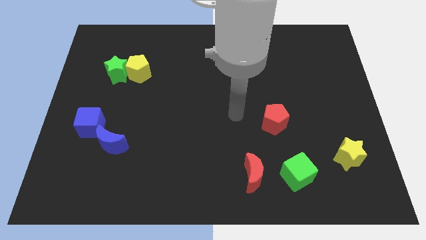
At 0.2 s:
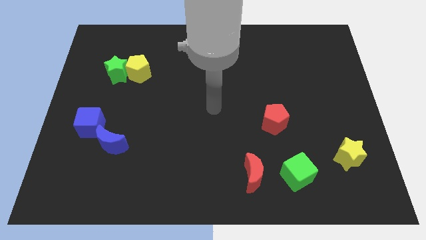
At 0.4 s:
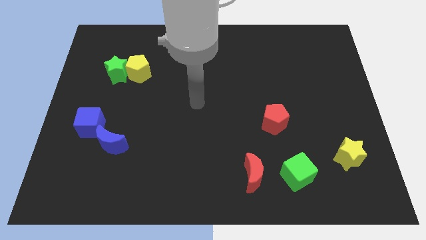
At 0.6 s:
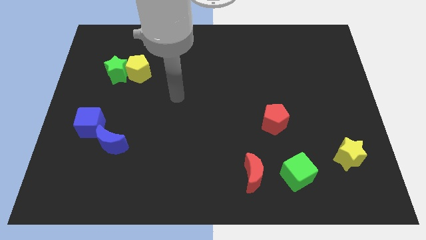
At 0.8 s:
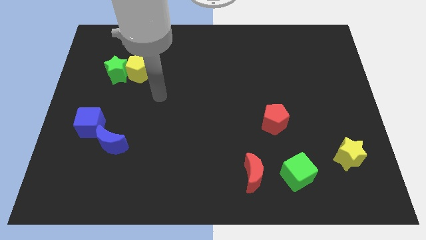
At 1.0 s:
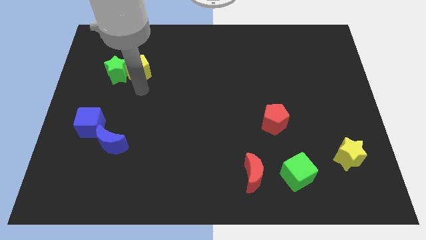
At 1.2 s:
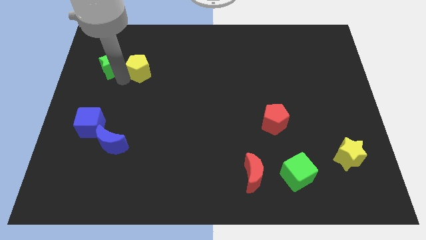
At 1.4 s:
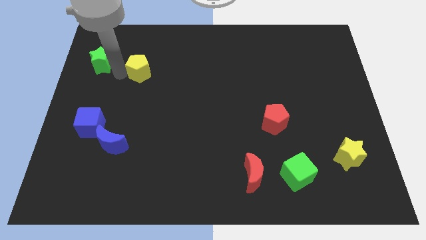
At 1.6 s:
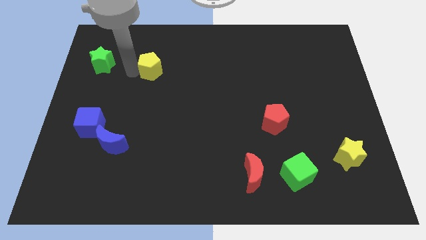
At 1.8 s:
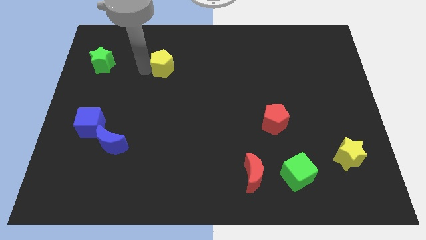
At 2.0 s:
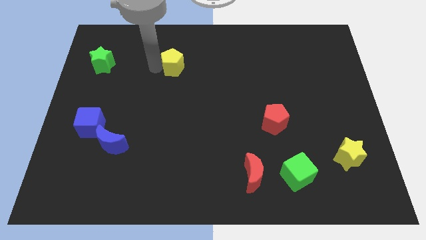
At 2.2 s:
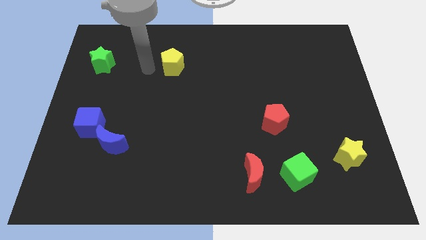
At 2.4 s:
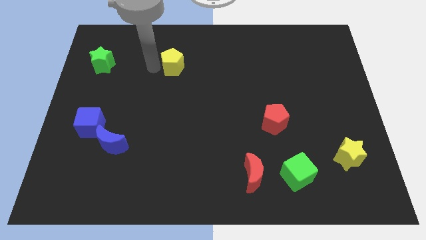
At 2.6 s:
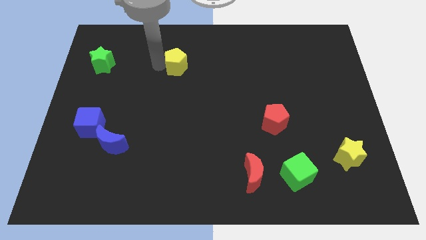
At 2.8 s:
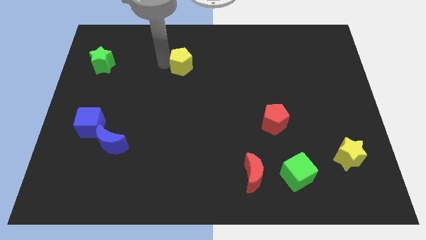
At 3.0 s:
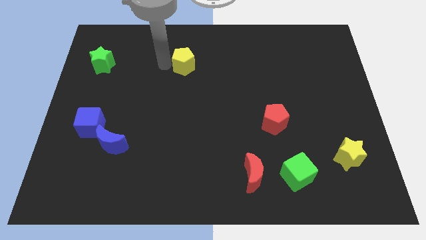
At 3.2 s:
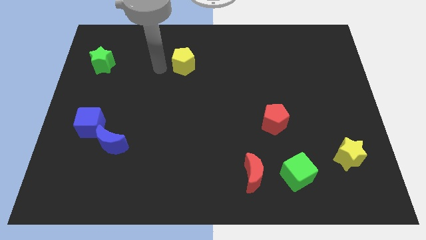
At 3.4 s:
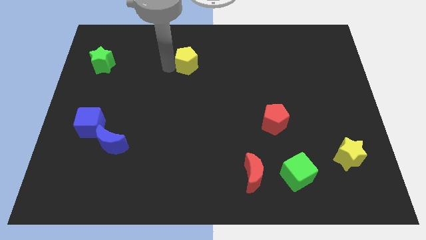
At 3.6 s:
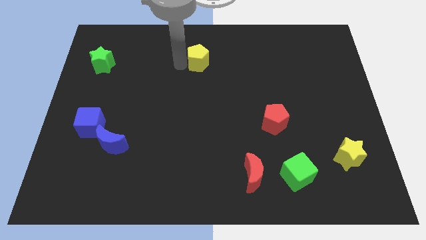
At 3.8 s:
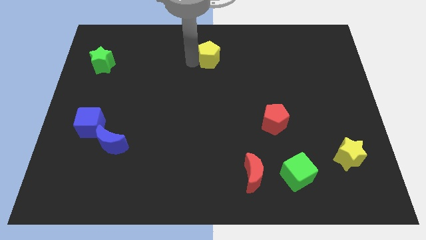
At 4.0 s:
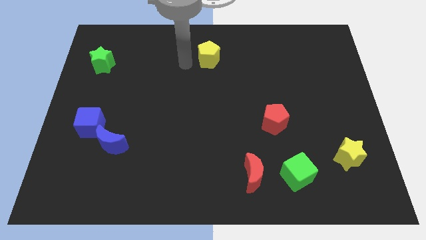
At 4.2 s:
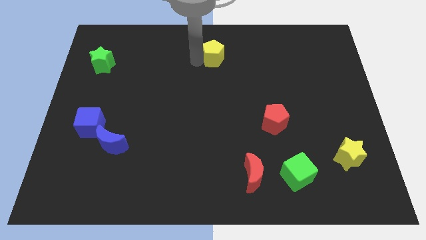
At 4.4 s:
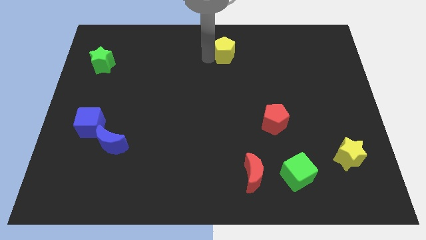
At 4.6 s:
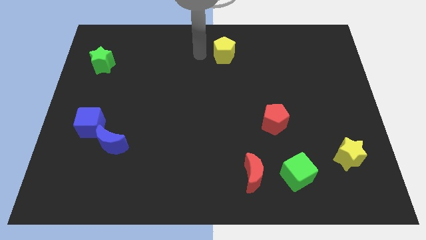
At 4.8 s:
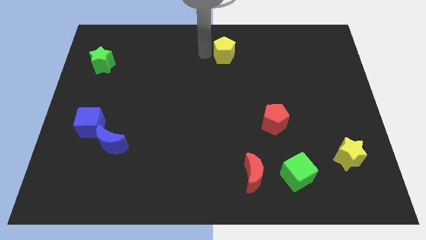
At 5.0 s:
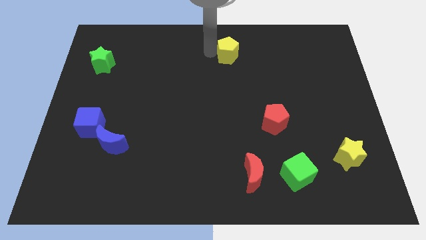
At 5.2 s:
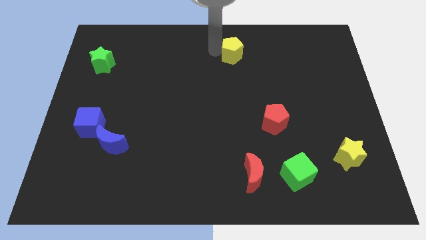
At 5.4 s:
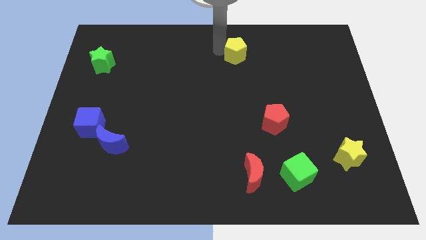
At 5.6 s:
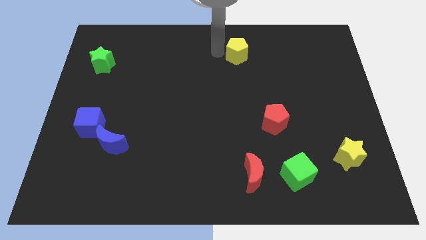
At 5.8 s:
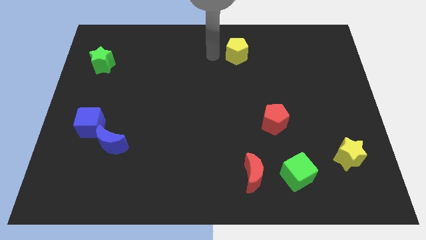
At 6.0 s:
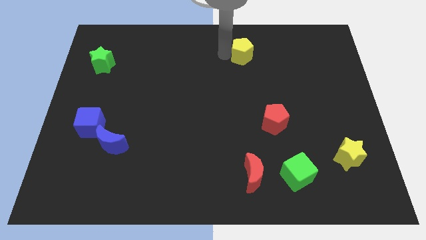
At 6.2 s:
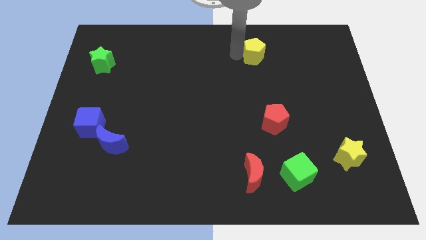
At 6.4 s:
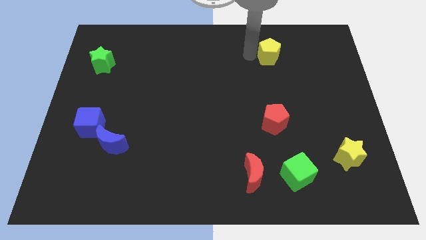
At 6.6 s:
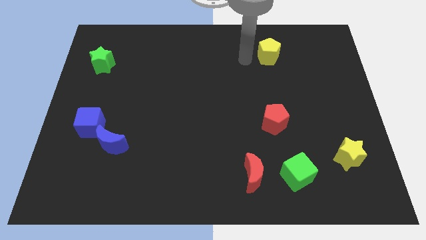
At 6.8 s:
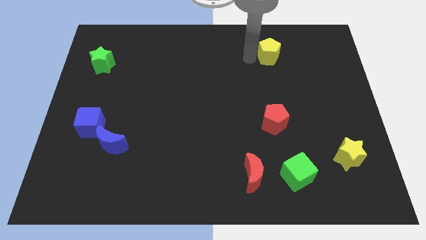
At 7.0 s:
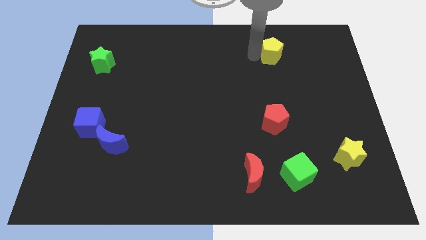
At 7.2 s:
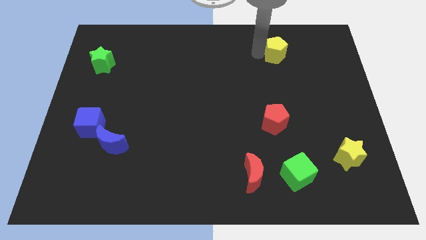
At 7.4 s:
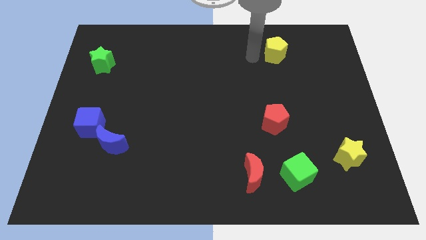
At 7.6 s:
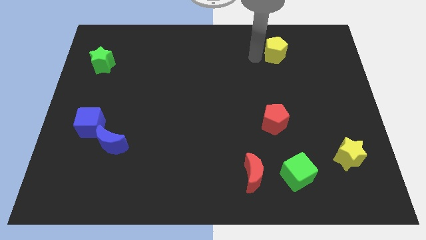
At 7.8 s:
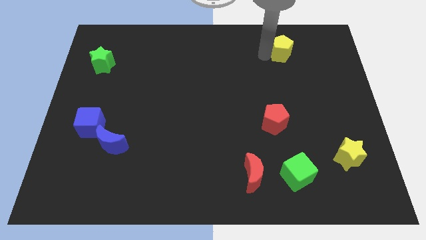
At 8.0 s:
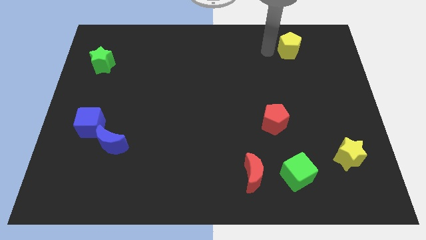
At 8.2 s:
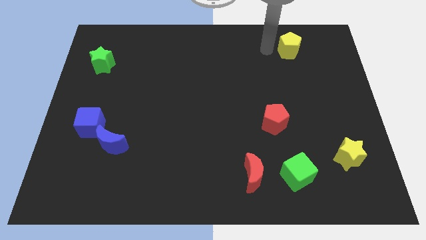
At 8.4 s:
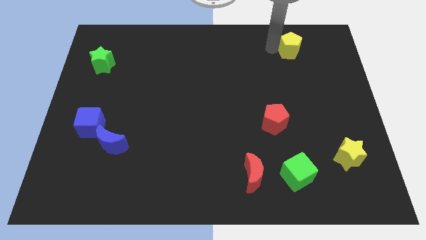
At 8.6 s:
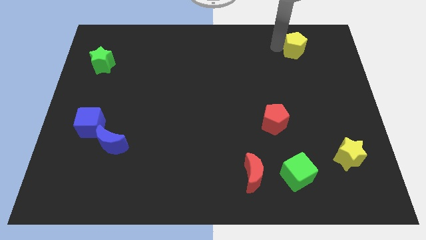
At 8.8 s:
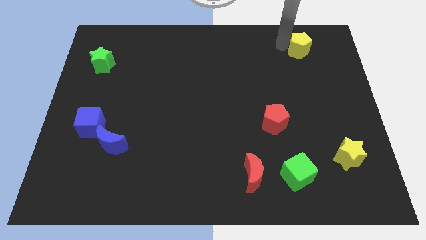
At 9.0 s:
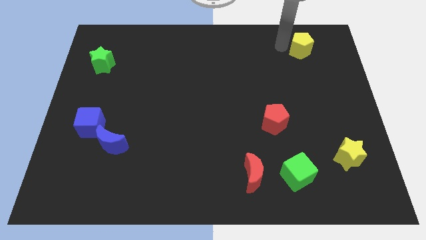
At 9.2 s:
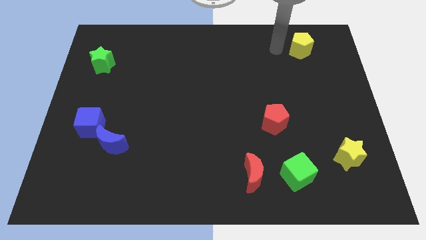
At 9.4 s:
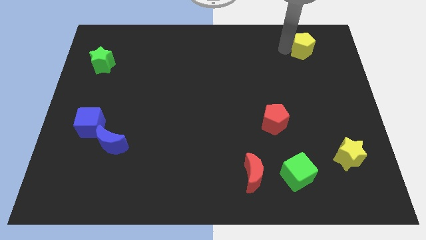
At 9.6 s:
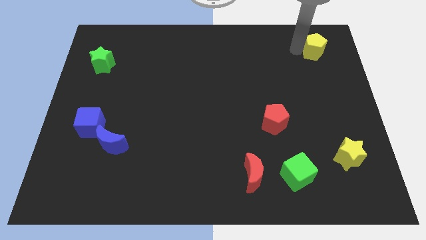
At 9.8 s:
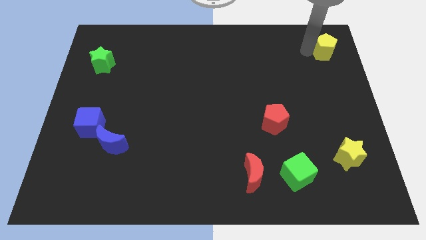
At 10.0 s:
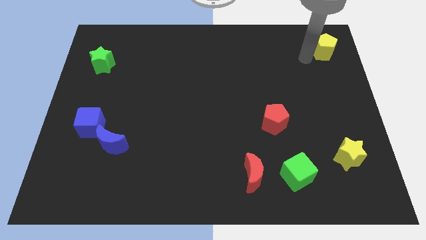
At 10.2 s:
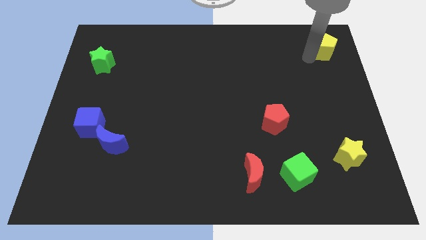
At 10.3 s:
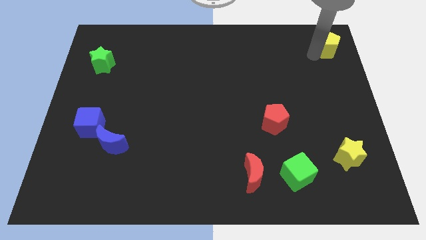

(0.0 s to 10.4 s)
push the yellow pentagon to the top right of the board

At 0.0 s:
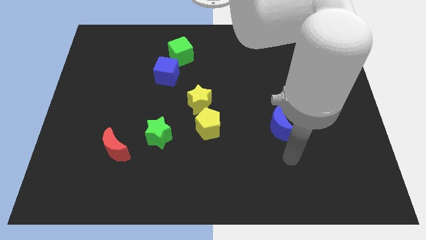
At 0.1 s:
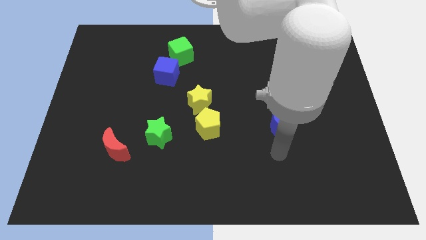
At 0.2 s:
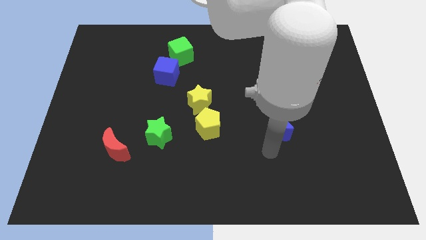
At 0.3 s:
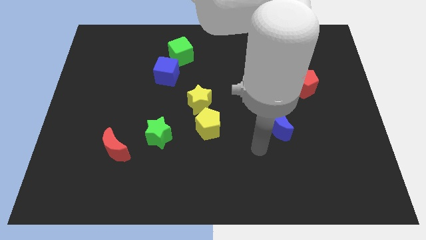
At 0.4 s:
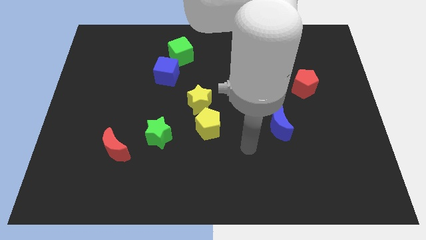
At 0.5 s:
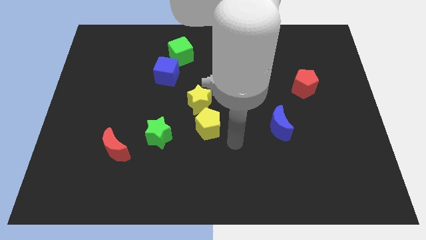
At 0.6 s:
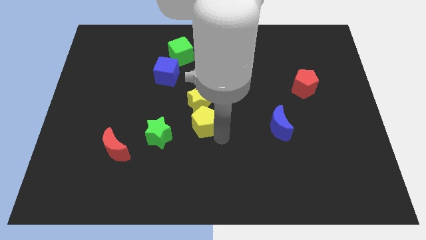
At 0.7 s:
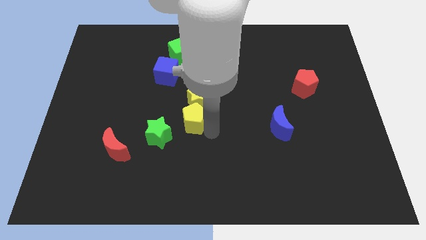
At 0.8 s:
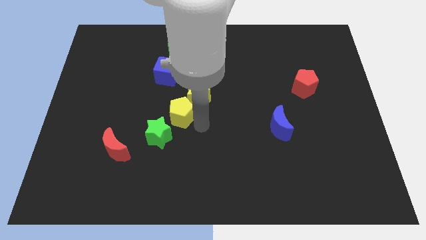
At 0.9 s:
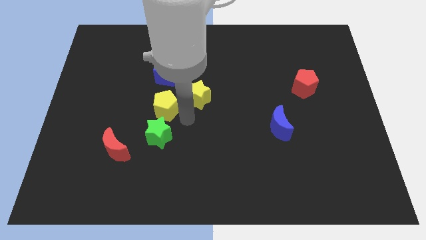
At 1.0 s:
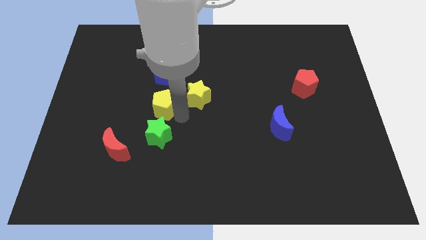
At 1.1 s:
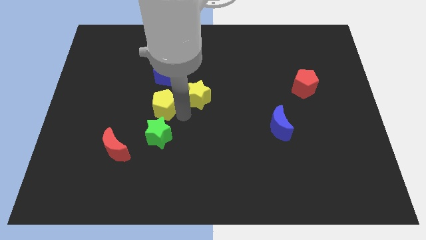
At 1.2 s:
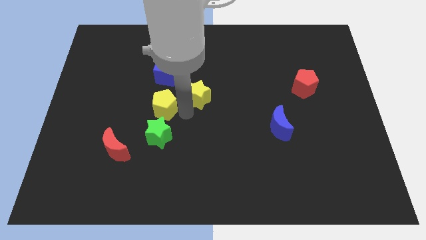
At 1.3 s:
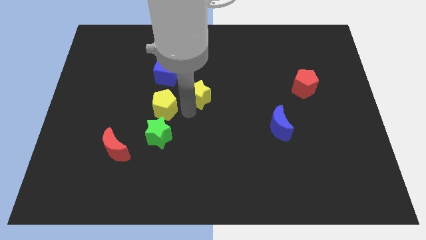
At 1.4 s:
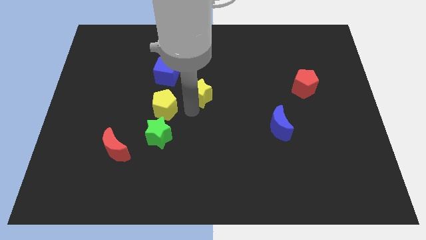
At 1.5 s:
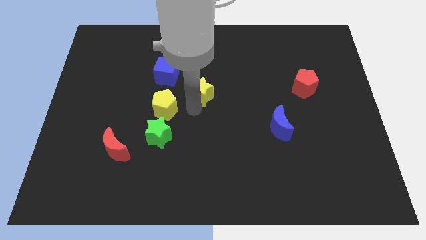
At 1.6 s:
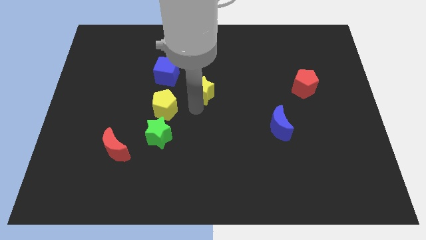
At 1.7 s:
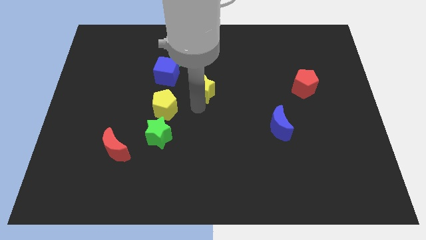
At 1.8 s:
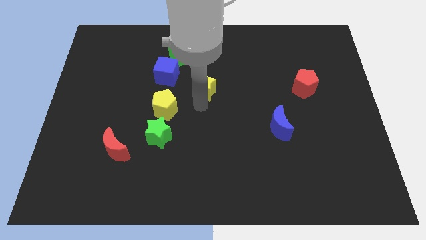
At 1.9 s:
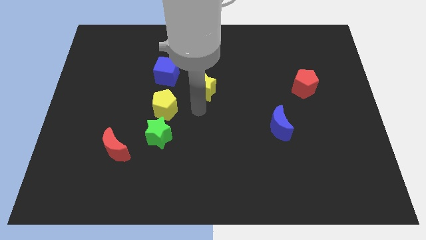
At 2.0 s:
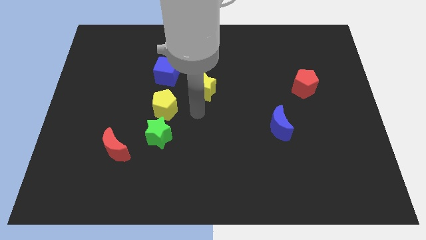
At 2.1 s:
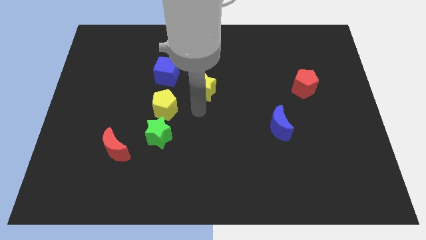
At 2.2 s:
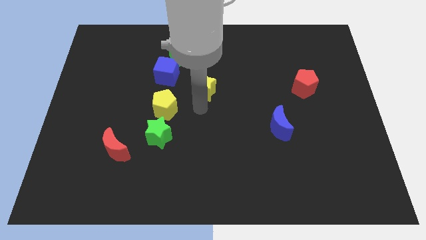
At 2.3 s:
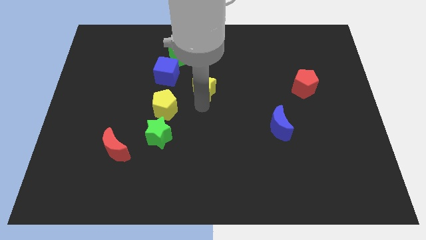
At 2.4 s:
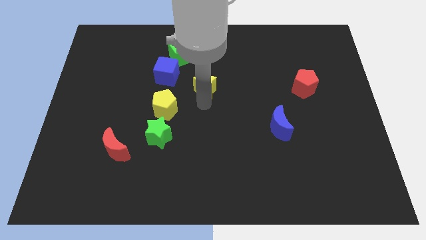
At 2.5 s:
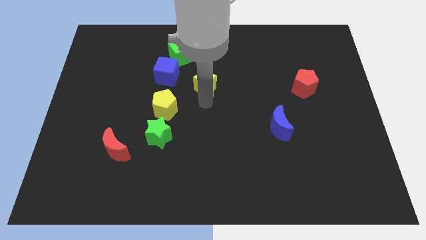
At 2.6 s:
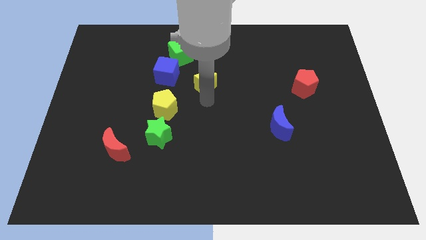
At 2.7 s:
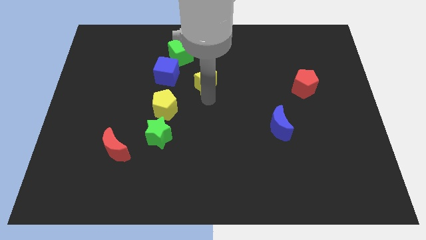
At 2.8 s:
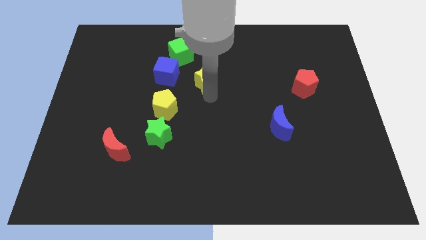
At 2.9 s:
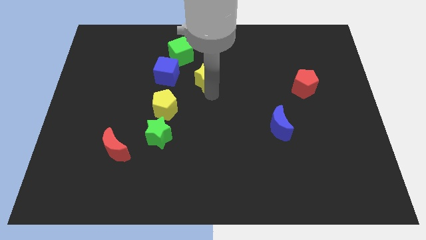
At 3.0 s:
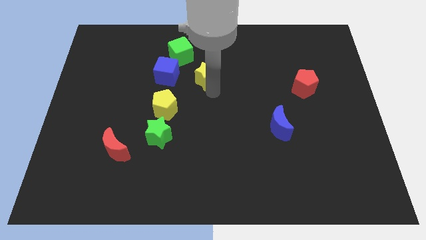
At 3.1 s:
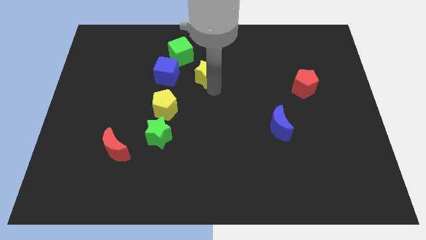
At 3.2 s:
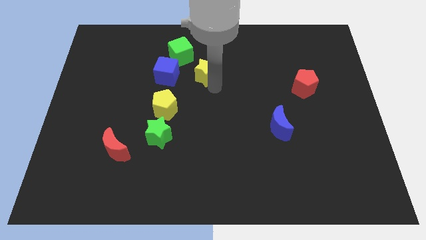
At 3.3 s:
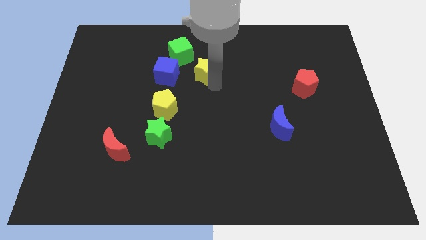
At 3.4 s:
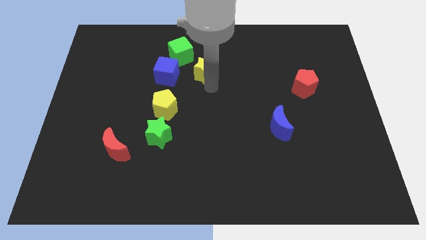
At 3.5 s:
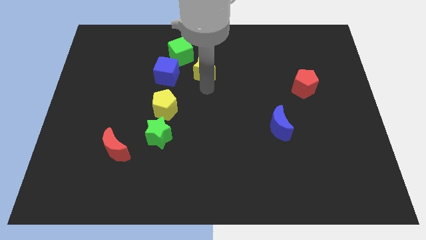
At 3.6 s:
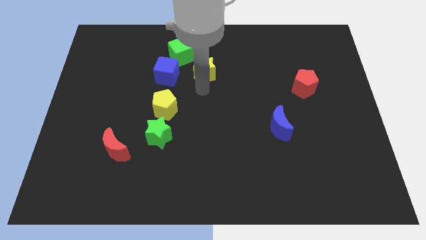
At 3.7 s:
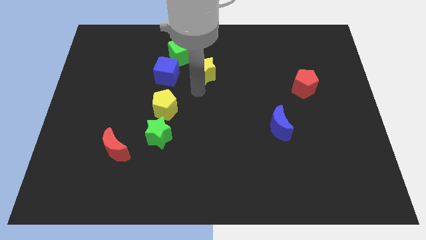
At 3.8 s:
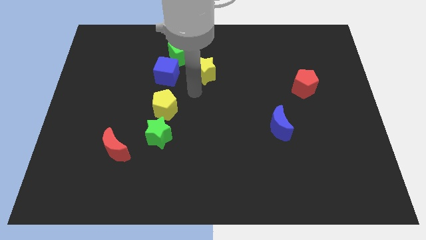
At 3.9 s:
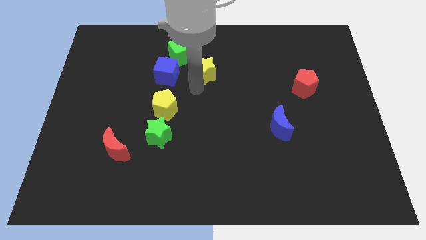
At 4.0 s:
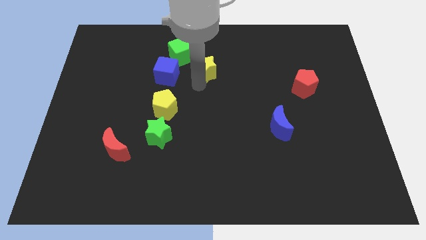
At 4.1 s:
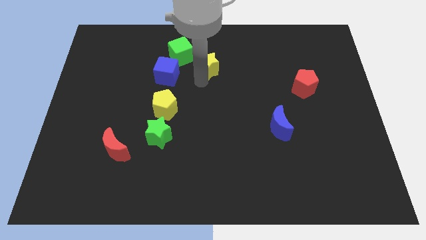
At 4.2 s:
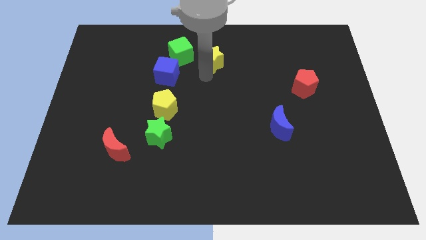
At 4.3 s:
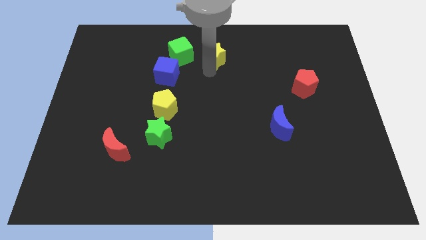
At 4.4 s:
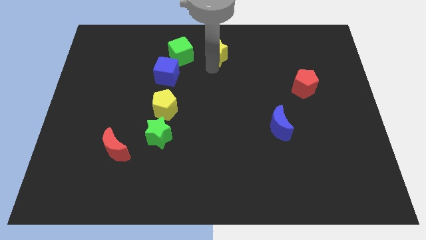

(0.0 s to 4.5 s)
push the yellow star to the top
